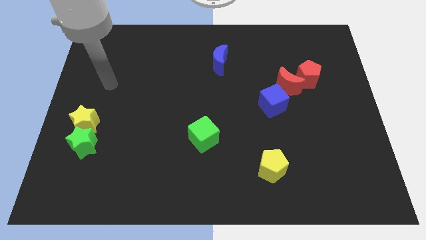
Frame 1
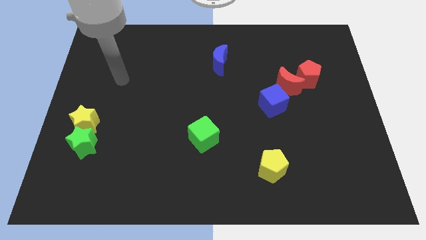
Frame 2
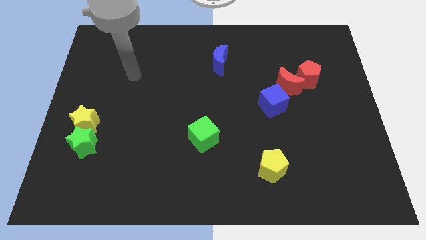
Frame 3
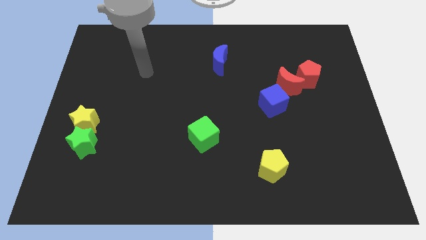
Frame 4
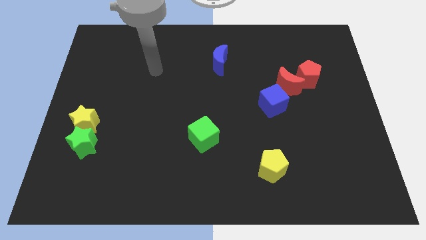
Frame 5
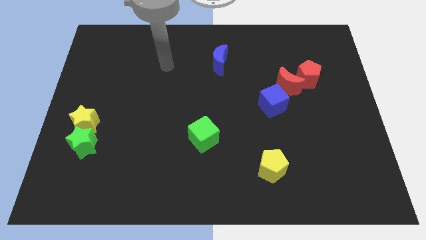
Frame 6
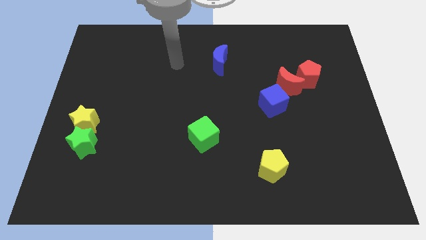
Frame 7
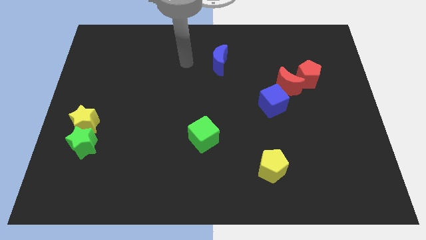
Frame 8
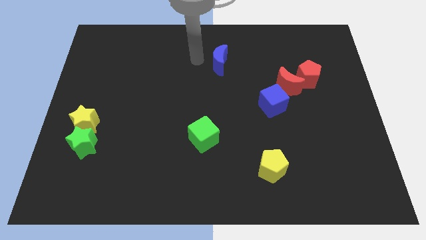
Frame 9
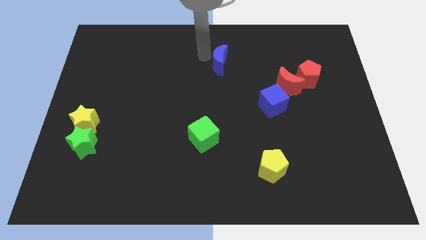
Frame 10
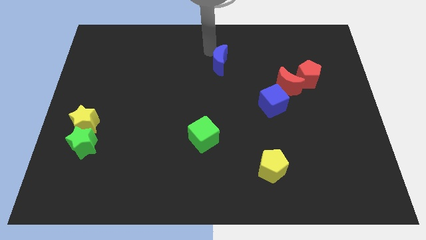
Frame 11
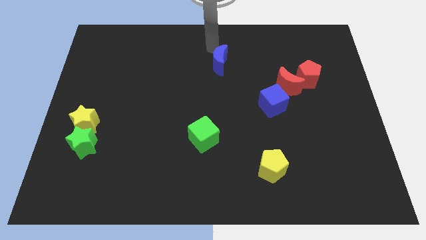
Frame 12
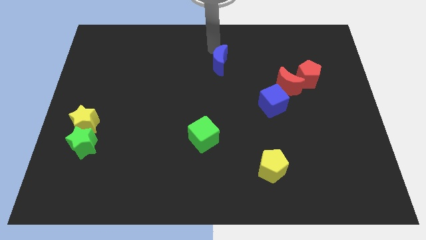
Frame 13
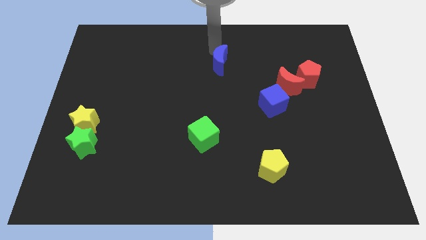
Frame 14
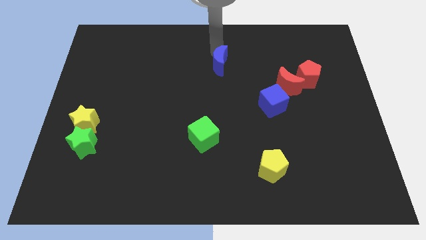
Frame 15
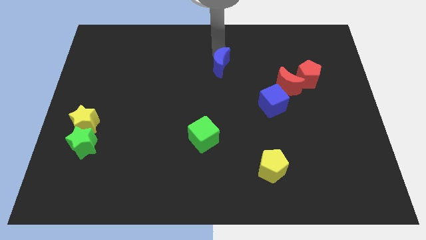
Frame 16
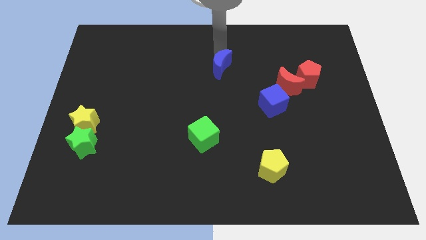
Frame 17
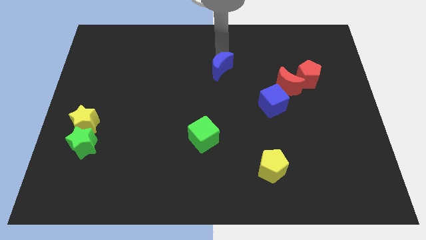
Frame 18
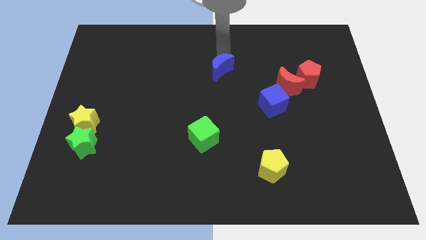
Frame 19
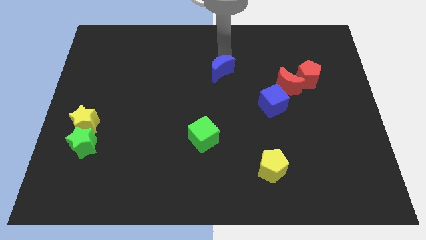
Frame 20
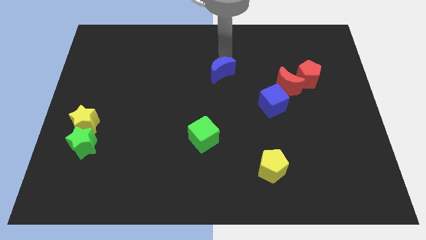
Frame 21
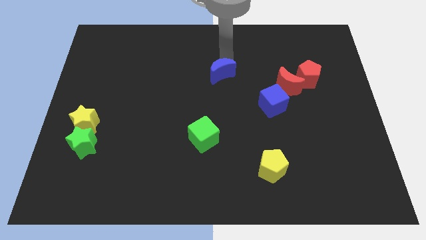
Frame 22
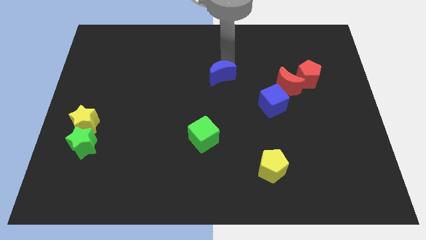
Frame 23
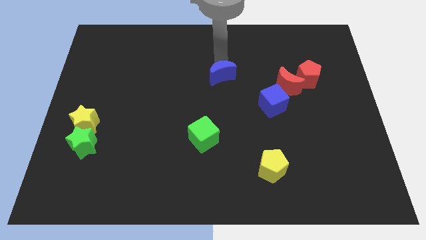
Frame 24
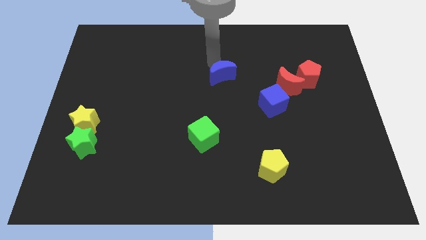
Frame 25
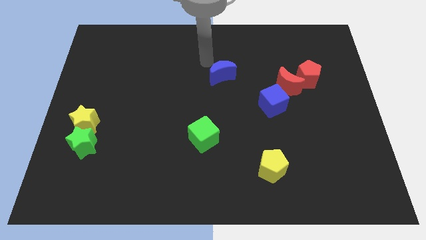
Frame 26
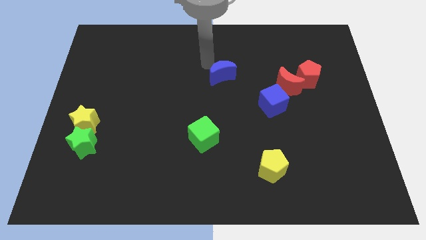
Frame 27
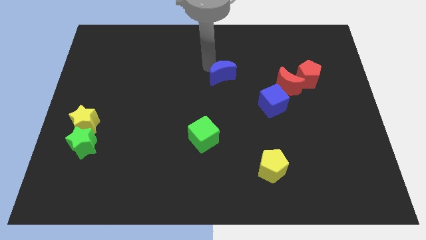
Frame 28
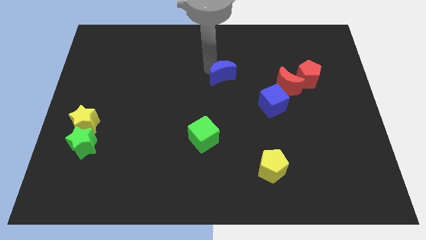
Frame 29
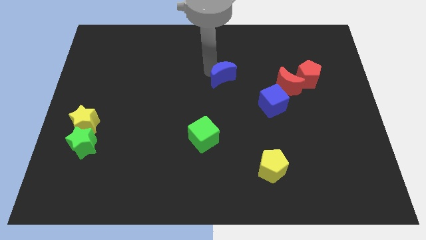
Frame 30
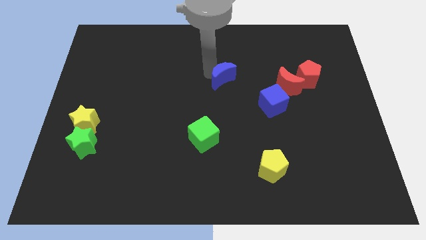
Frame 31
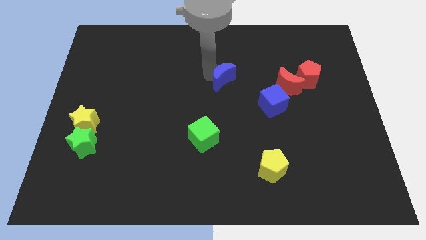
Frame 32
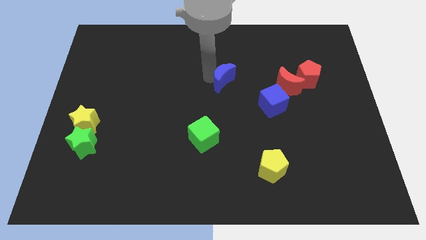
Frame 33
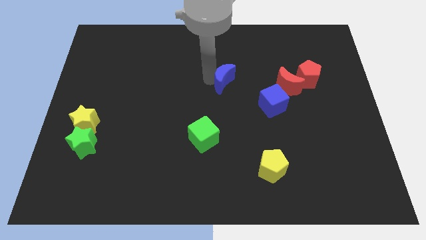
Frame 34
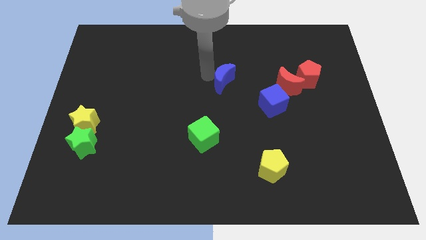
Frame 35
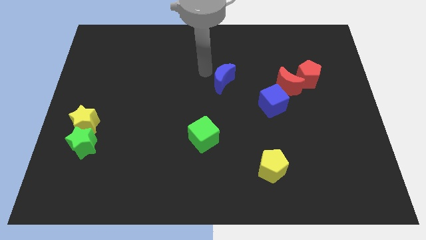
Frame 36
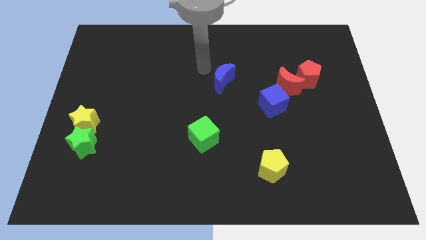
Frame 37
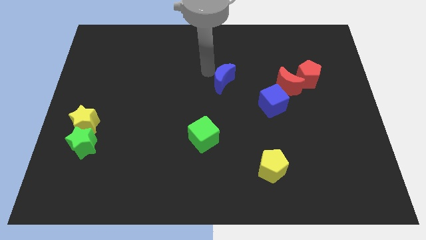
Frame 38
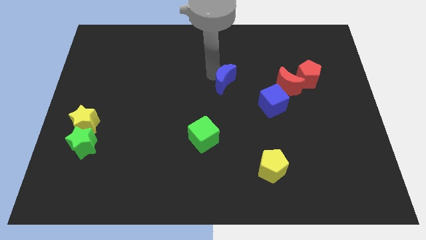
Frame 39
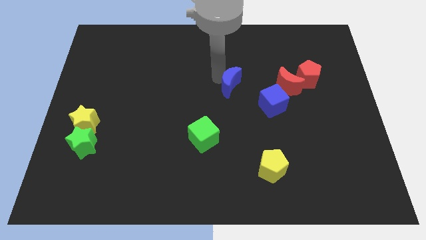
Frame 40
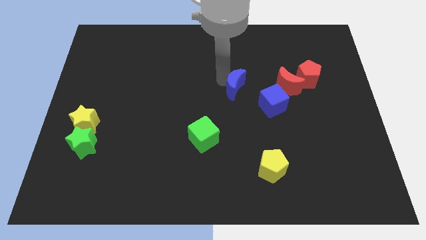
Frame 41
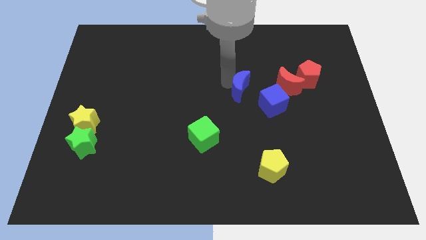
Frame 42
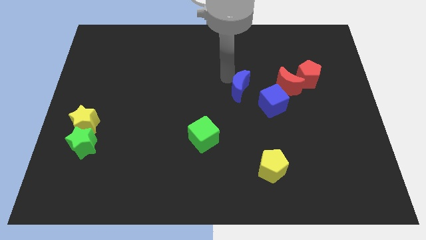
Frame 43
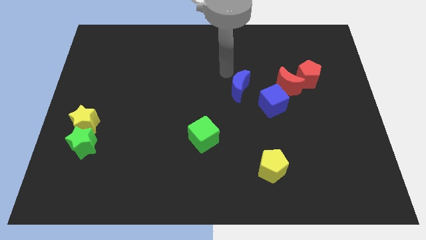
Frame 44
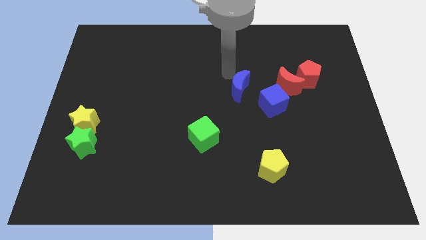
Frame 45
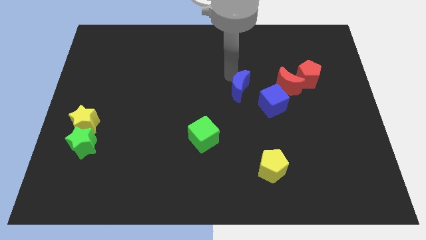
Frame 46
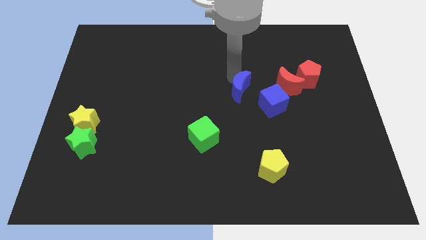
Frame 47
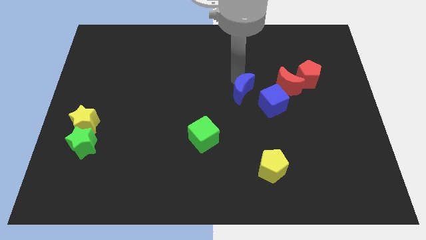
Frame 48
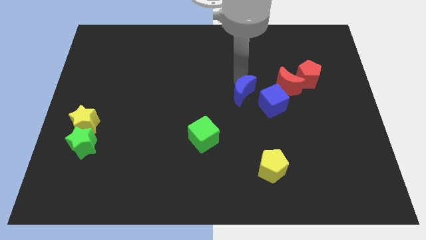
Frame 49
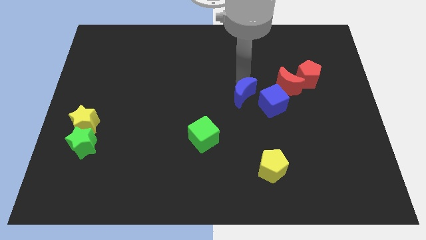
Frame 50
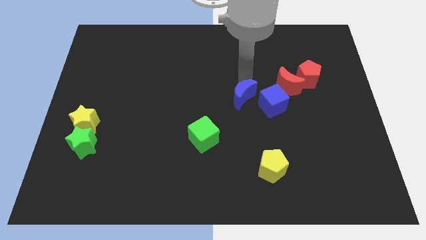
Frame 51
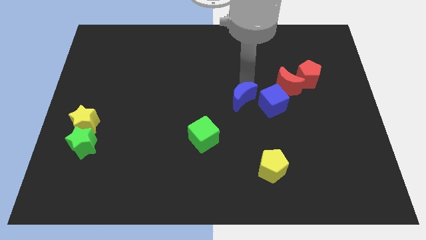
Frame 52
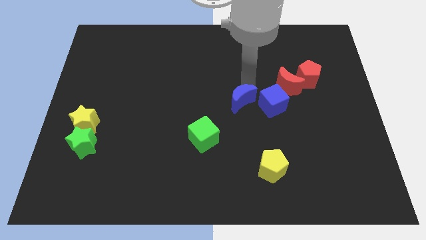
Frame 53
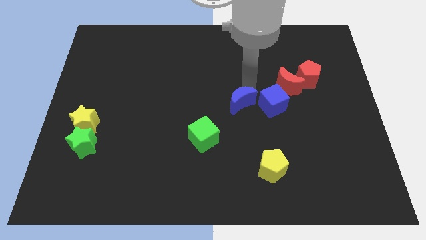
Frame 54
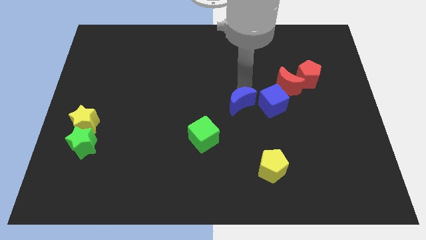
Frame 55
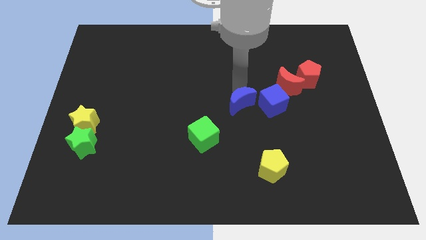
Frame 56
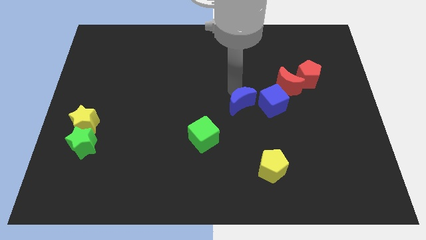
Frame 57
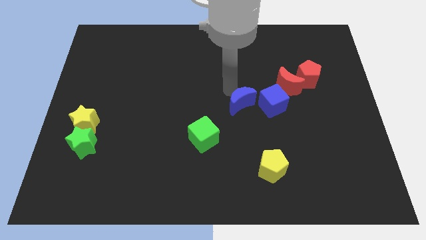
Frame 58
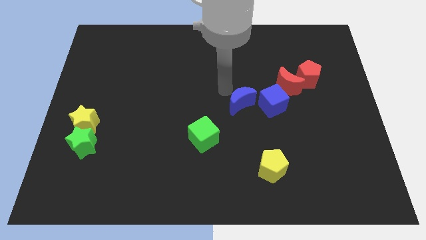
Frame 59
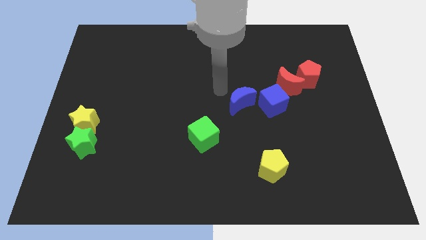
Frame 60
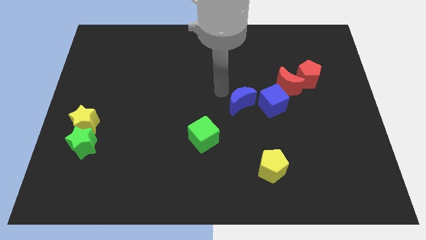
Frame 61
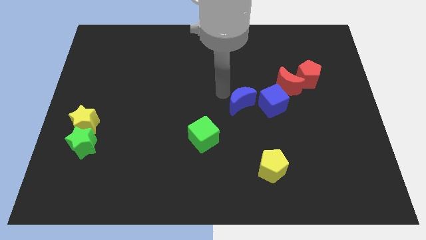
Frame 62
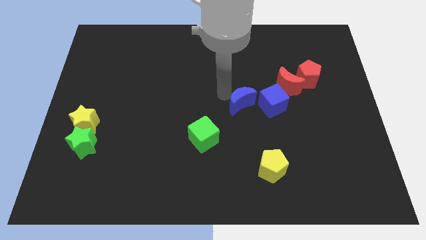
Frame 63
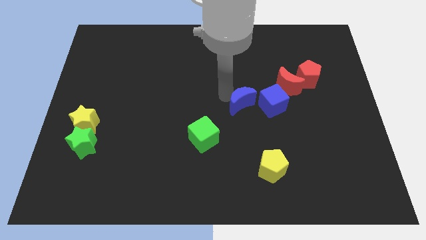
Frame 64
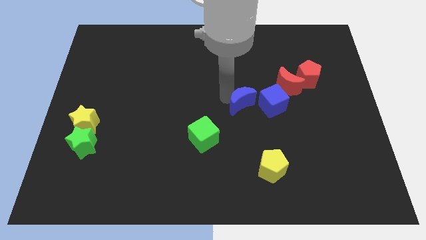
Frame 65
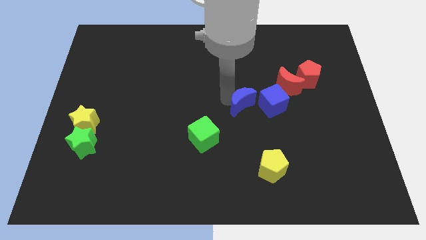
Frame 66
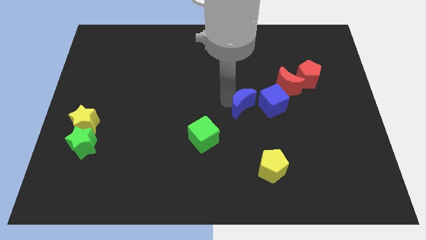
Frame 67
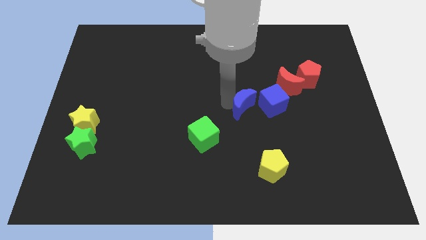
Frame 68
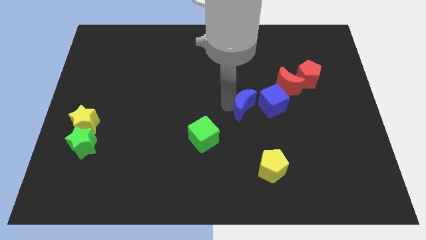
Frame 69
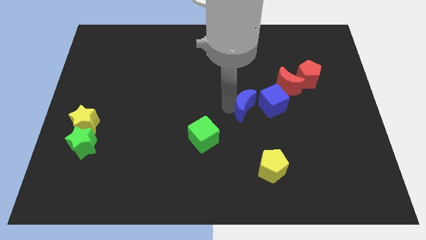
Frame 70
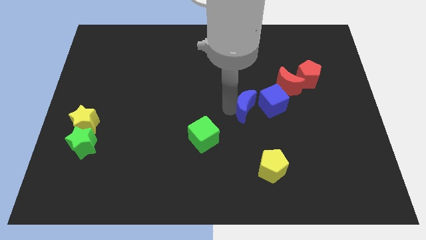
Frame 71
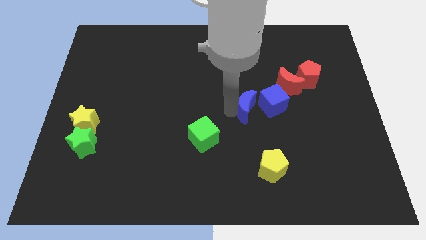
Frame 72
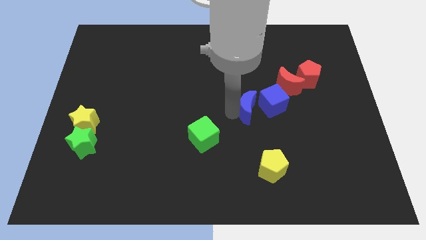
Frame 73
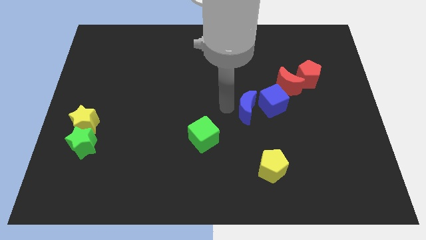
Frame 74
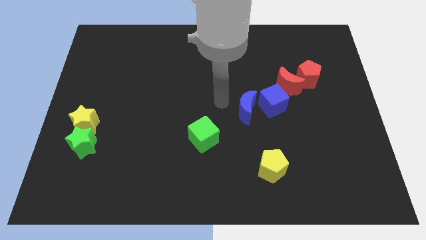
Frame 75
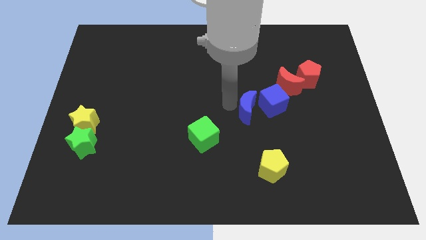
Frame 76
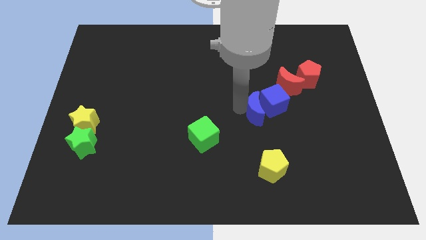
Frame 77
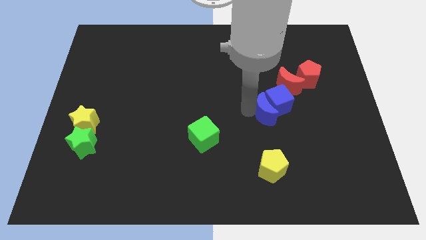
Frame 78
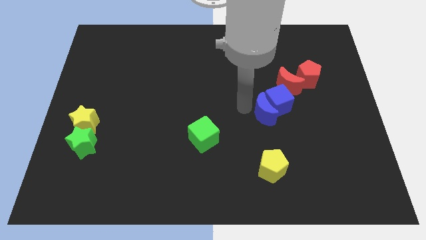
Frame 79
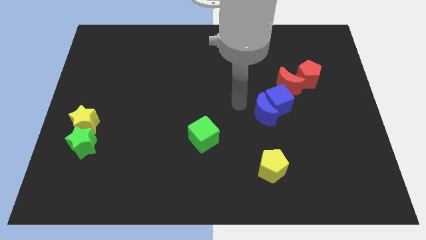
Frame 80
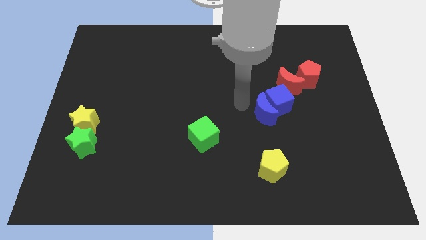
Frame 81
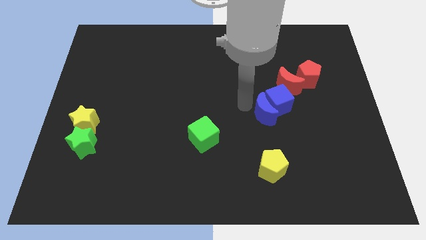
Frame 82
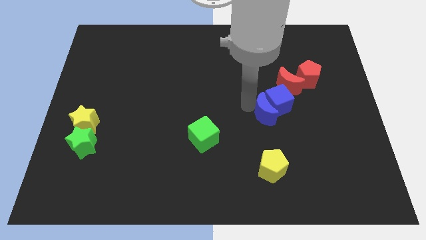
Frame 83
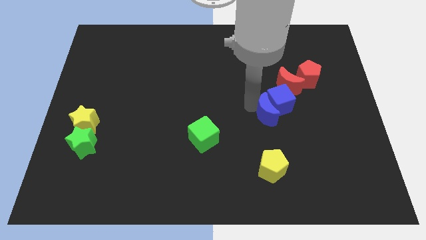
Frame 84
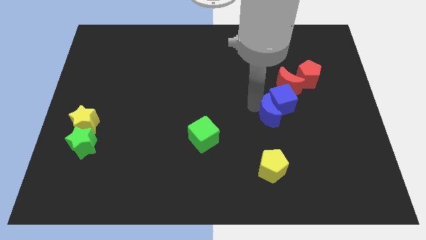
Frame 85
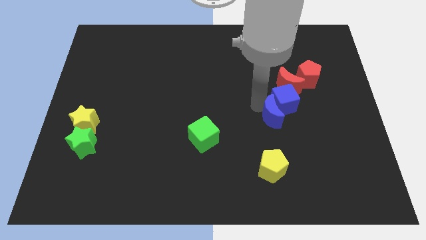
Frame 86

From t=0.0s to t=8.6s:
slide the blue moon downwards and to the right
